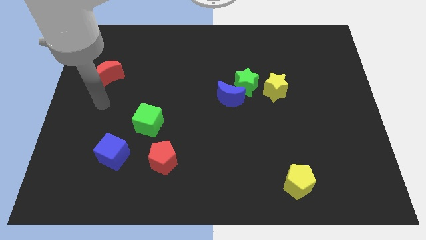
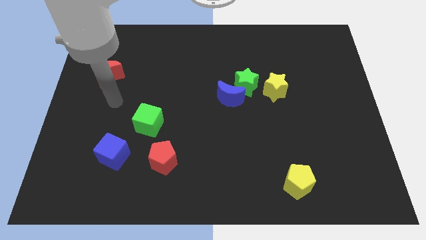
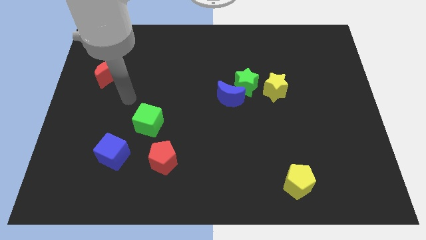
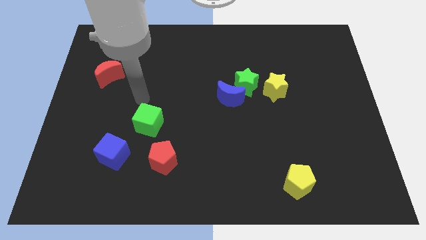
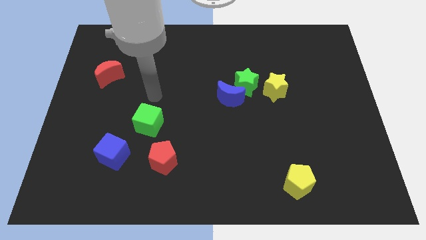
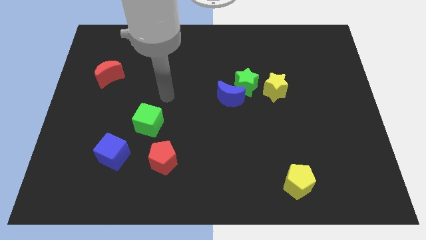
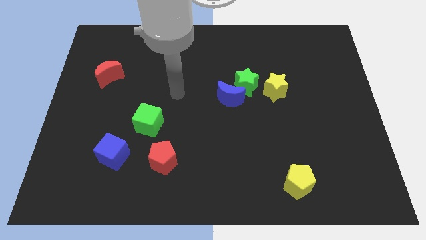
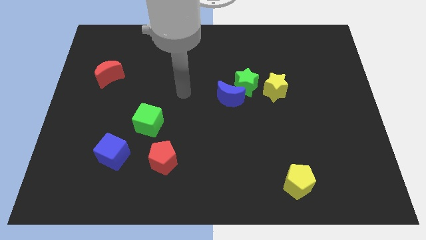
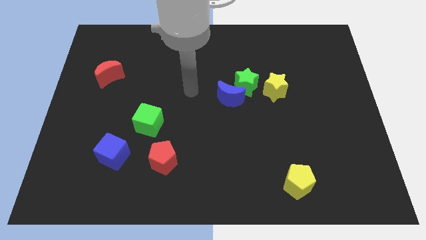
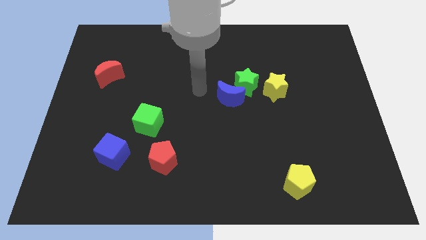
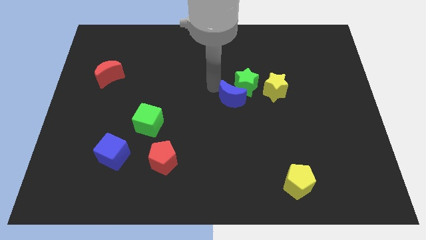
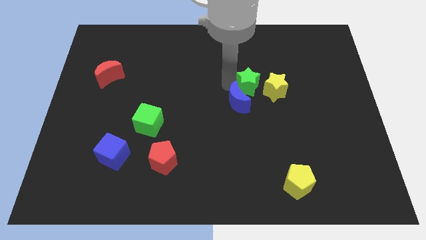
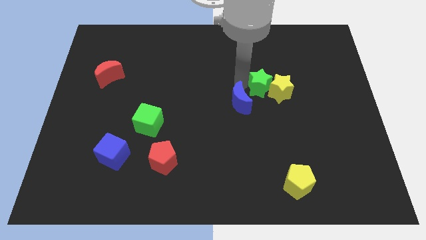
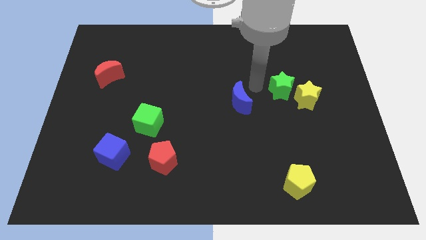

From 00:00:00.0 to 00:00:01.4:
pull the blue moon apart from the green star

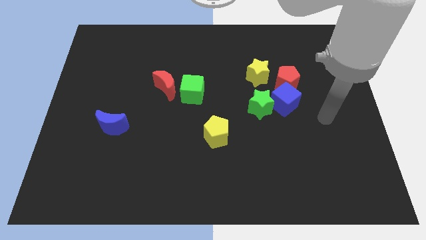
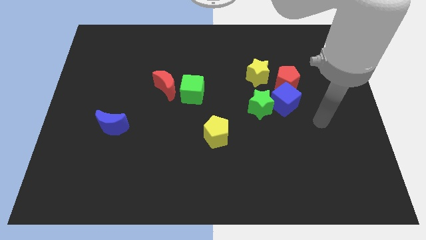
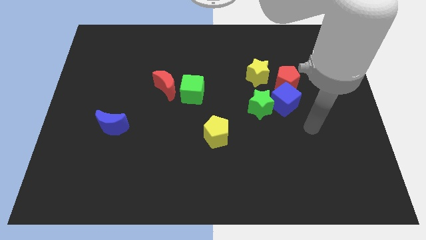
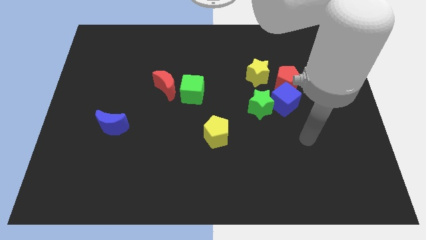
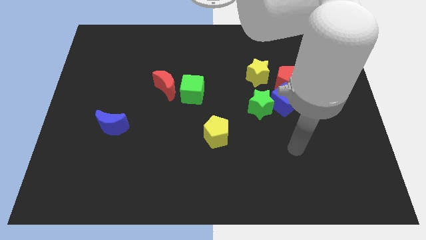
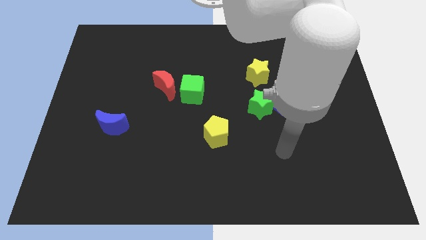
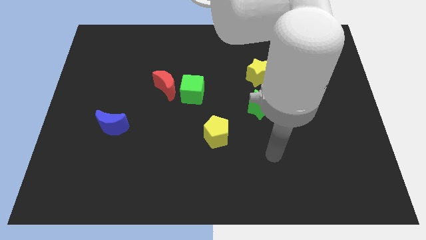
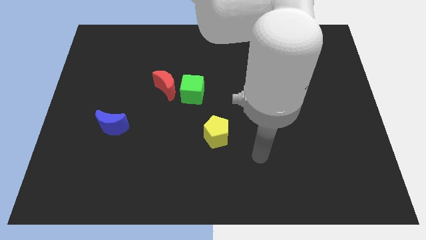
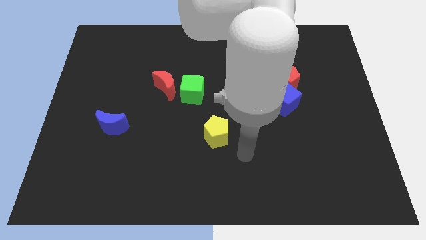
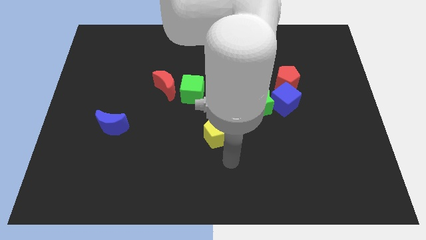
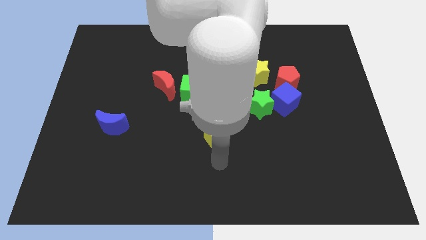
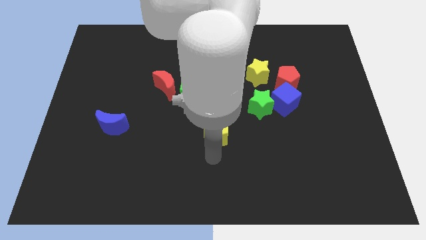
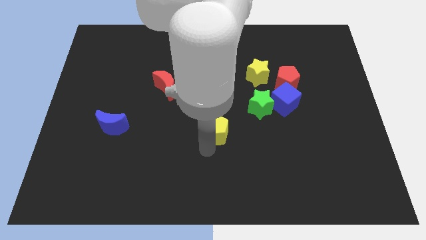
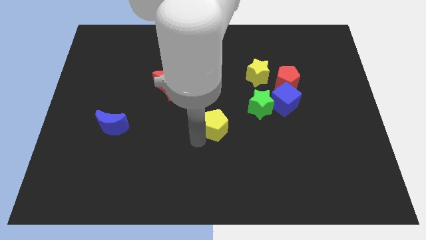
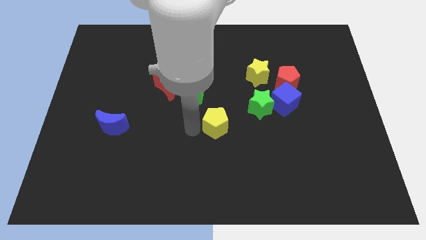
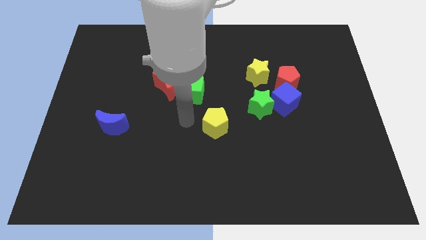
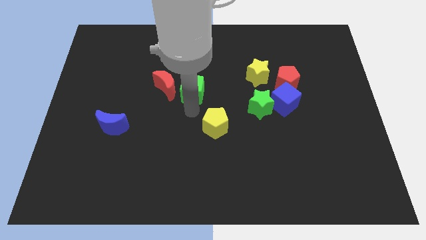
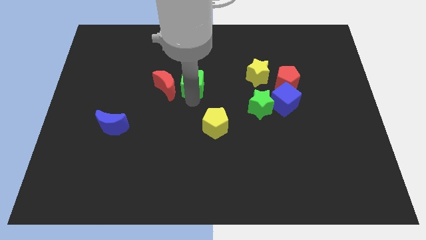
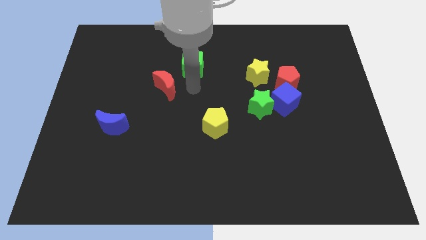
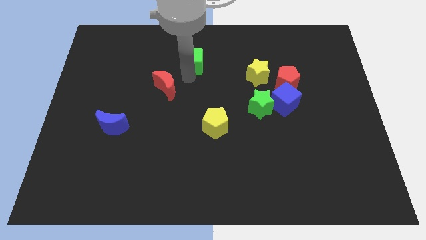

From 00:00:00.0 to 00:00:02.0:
separate the red moon from the green cube

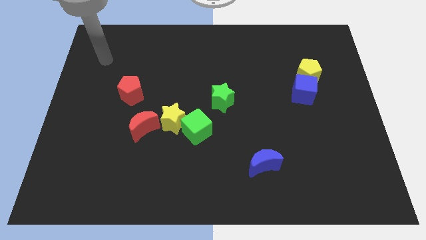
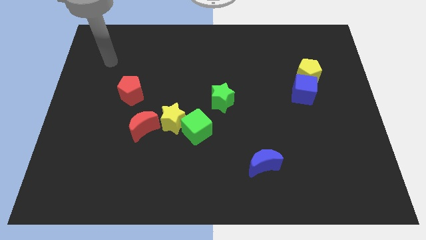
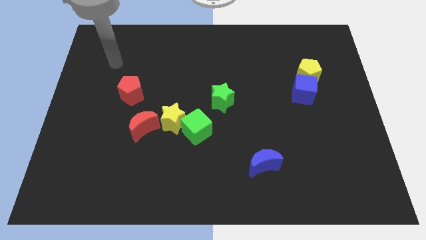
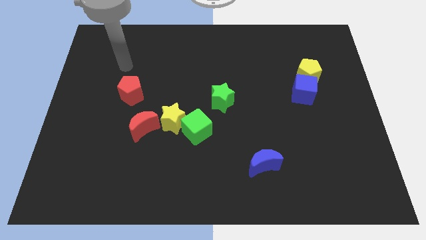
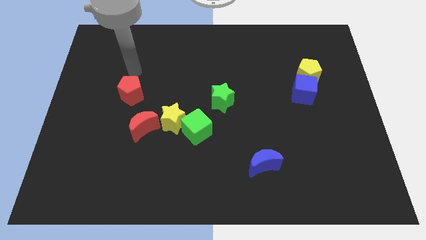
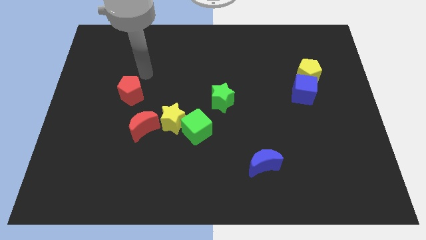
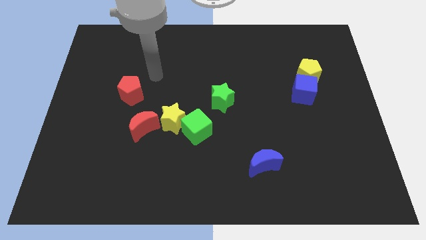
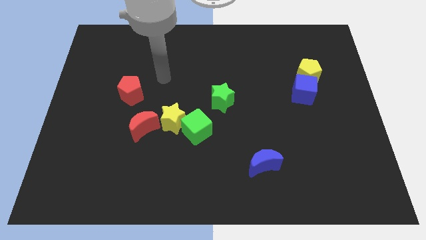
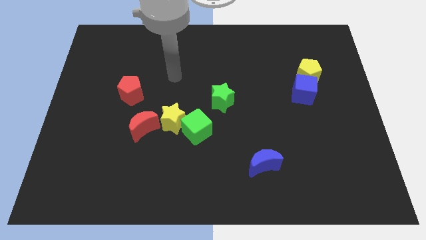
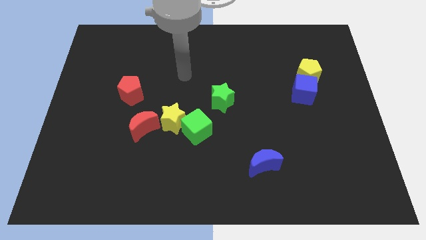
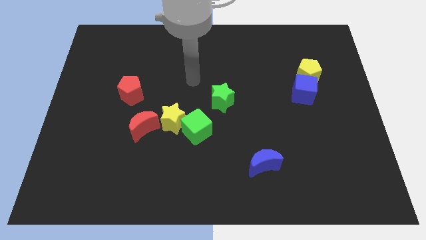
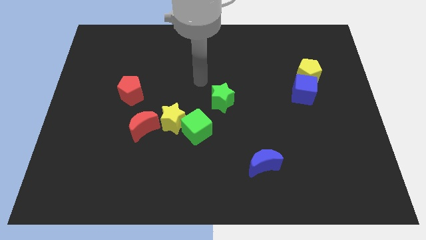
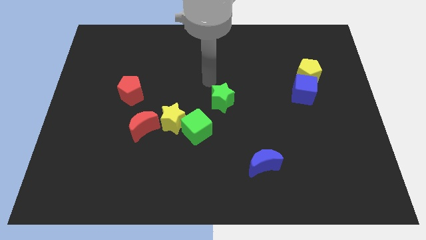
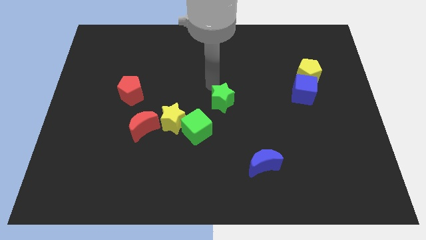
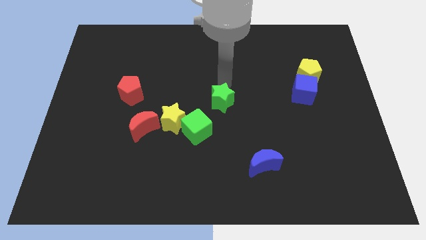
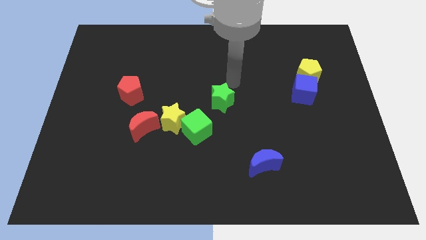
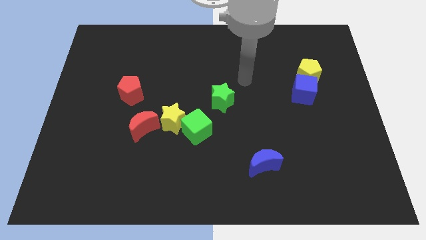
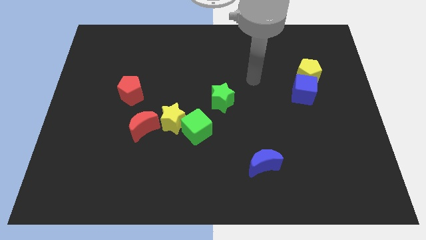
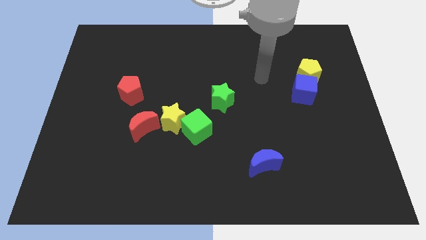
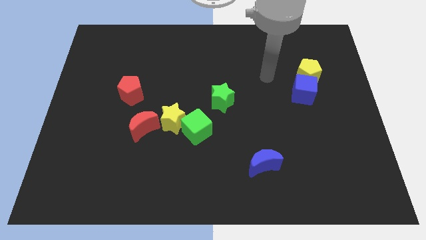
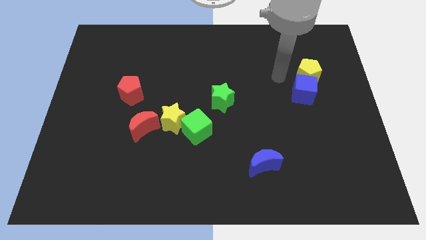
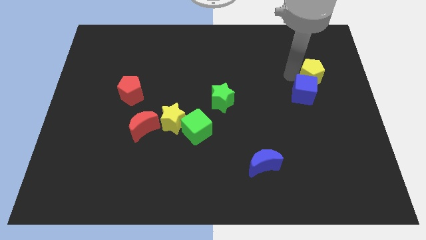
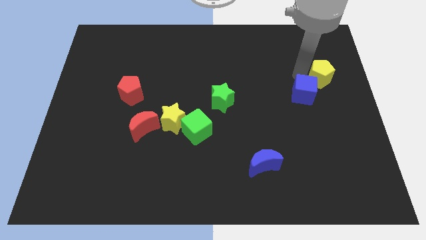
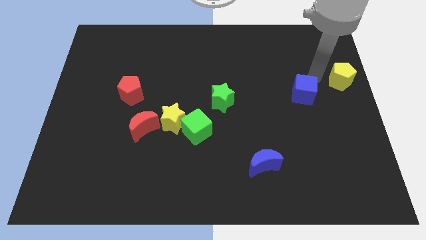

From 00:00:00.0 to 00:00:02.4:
move the blue cube away from the yellow pentagon

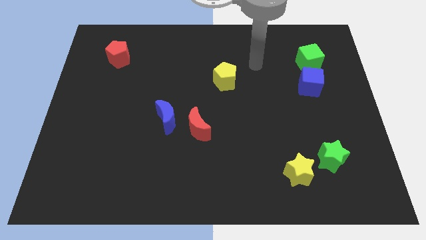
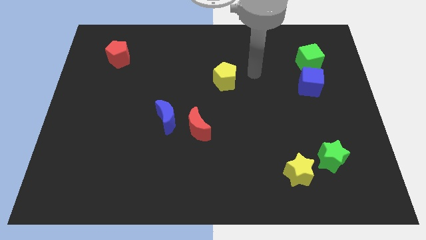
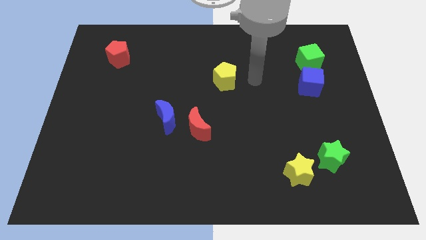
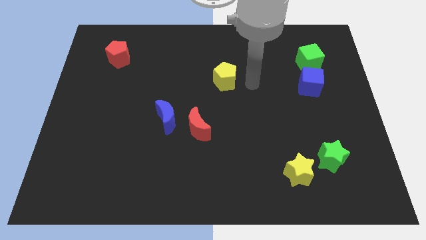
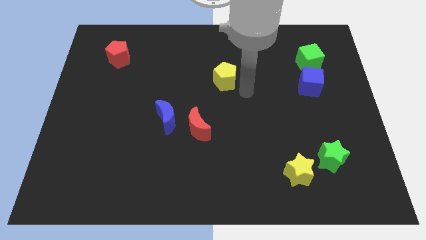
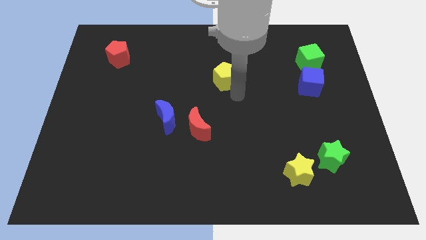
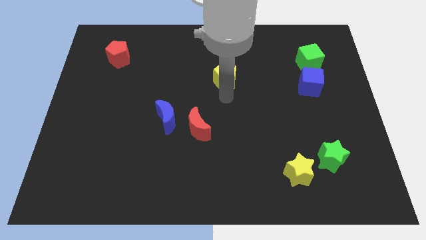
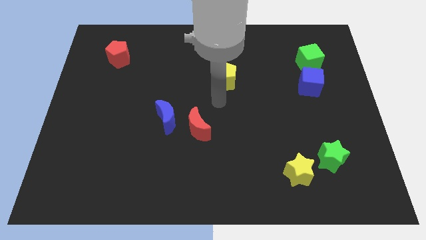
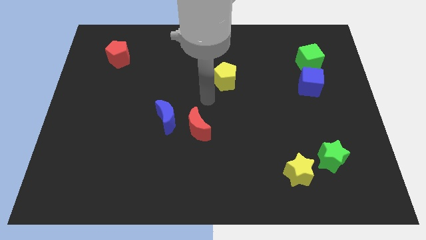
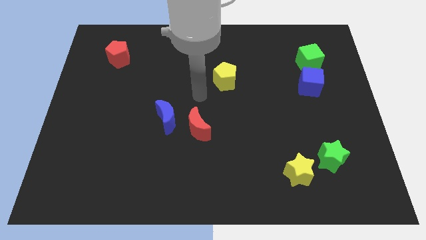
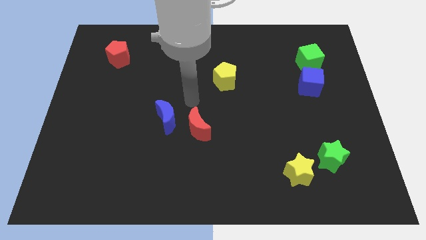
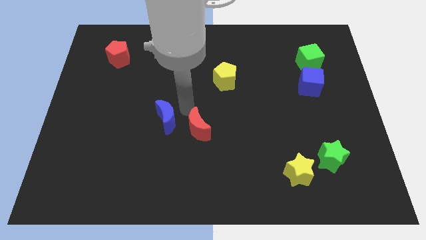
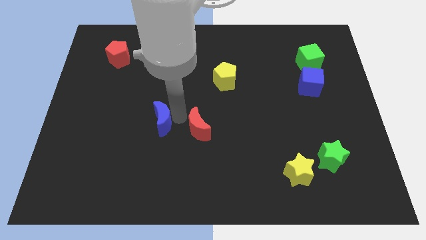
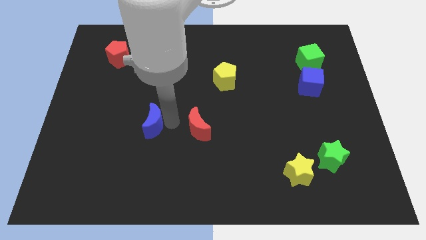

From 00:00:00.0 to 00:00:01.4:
separate the red moon from the blue moon

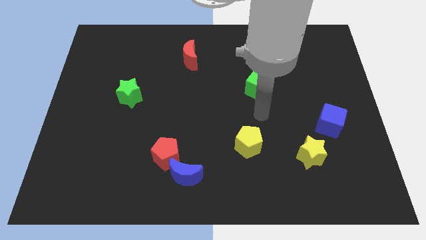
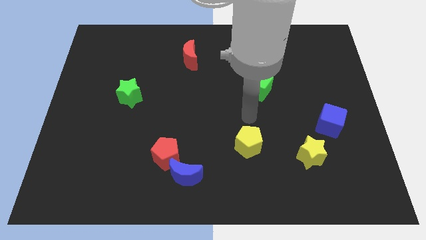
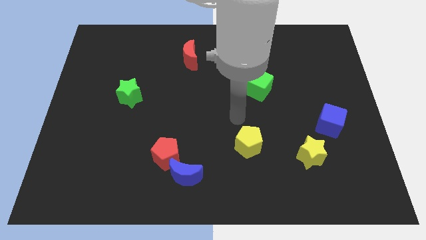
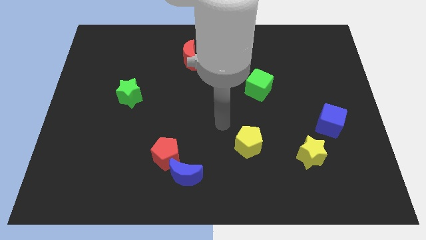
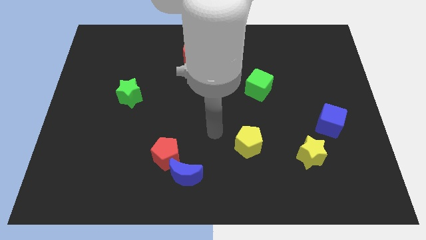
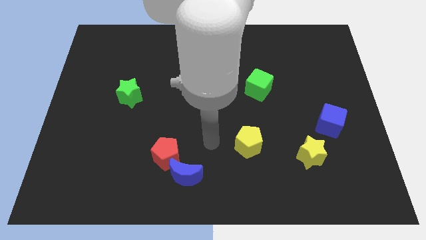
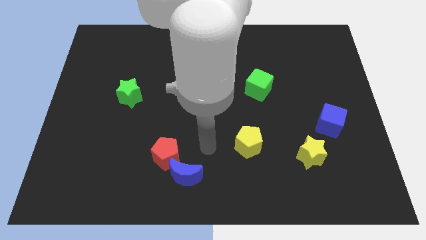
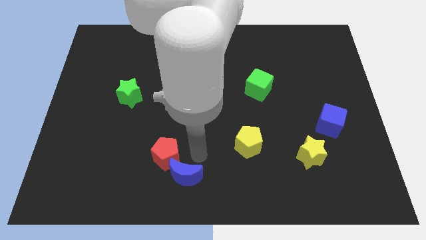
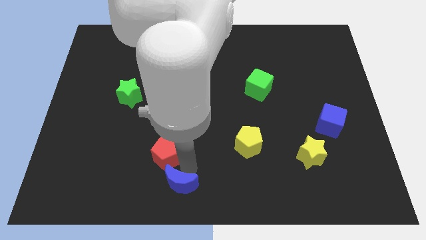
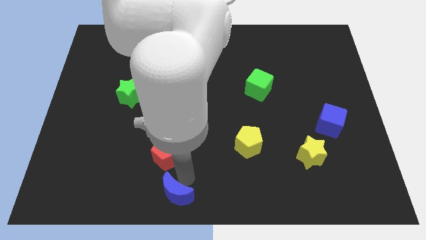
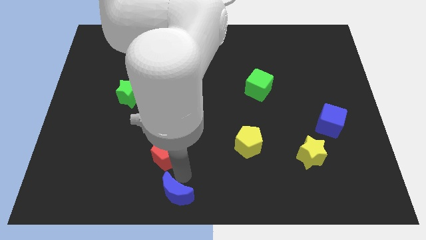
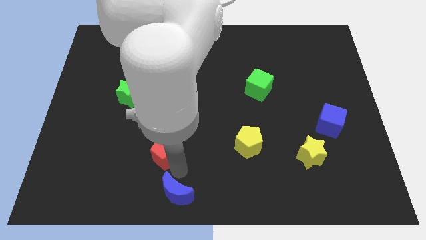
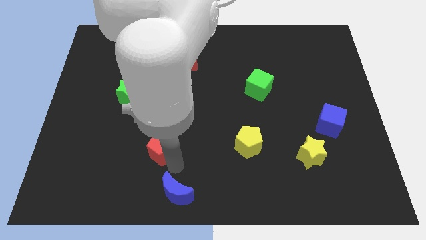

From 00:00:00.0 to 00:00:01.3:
pull the red pentagon apart from the blue moon

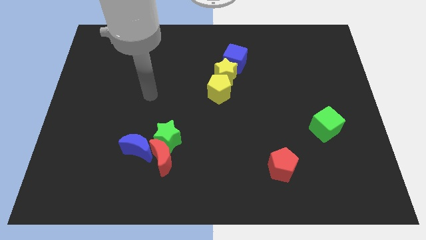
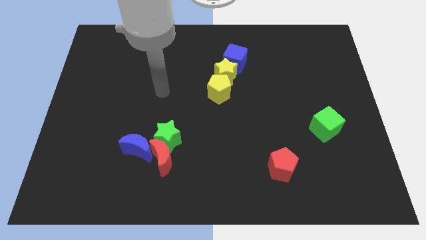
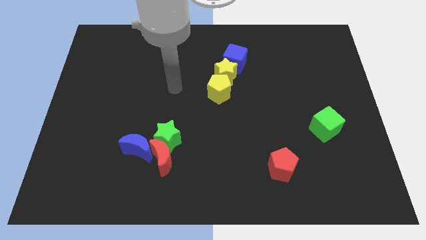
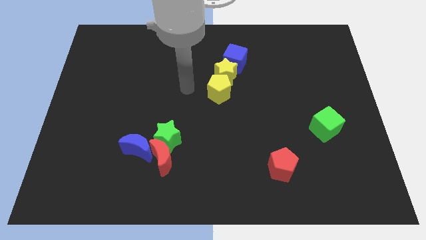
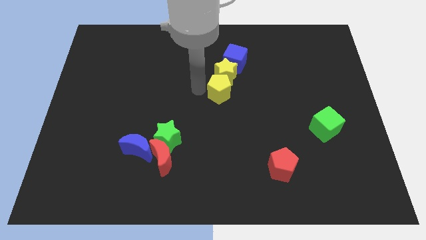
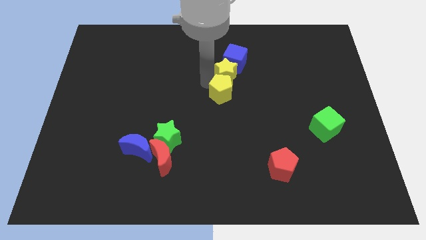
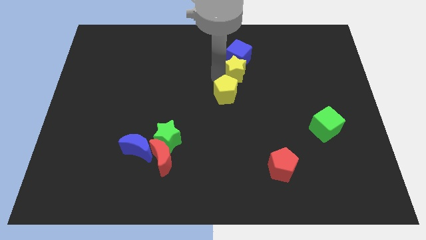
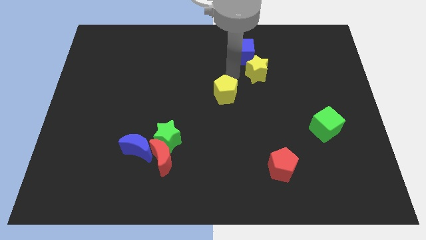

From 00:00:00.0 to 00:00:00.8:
move the yellow pentagon away from the yellow star
